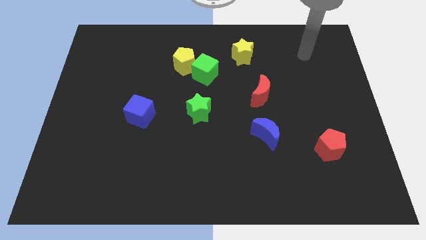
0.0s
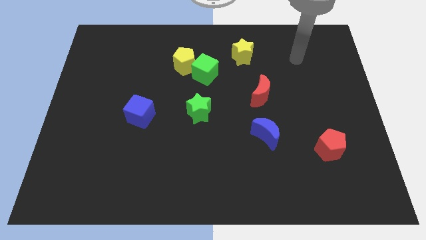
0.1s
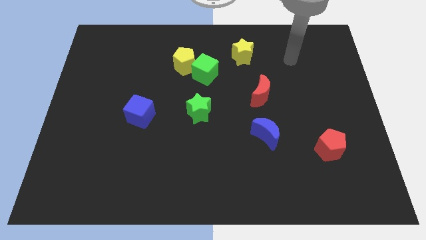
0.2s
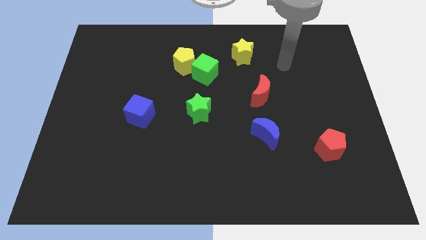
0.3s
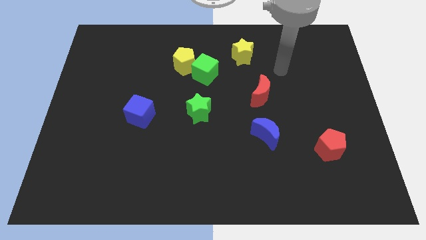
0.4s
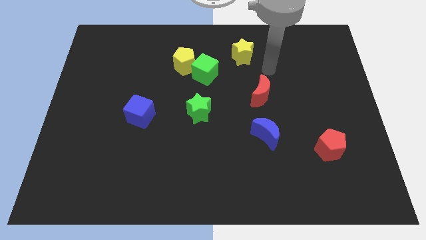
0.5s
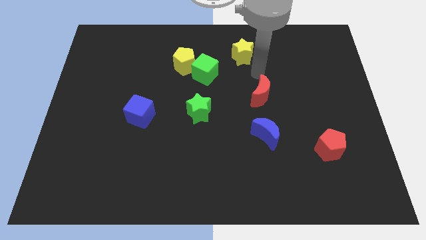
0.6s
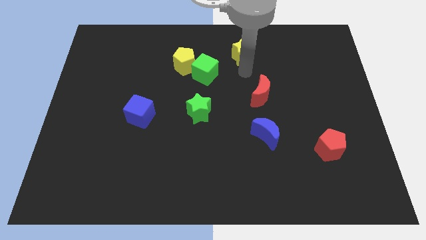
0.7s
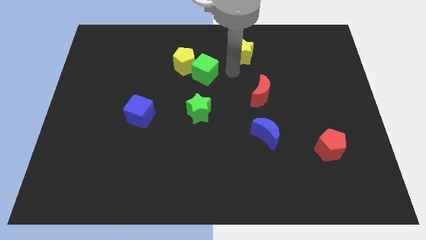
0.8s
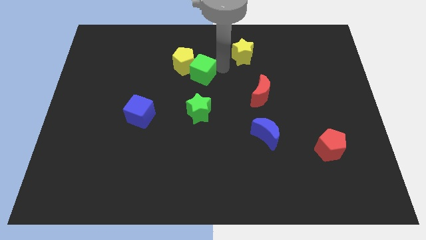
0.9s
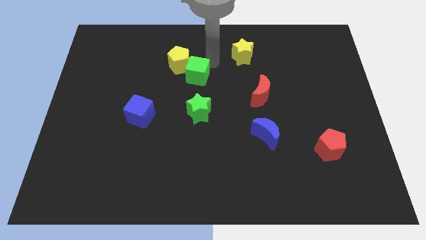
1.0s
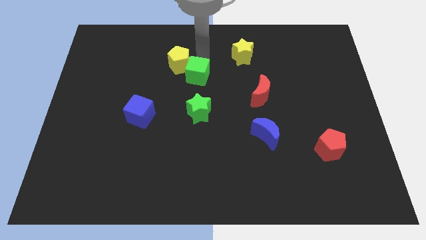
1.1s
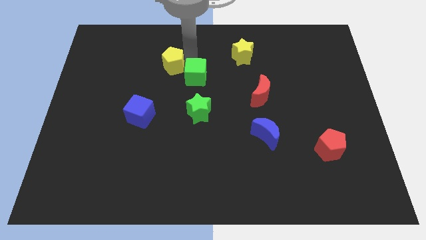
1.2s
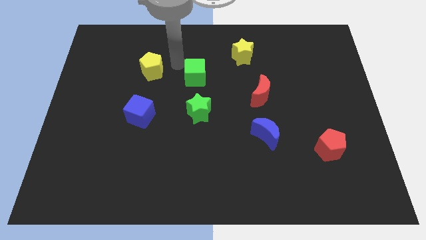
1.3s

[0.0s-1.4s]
separate the green cube from the yellow pentagon

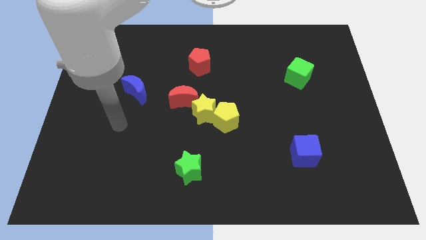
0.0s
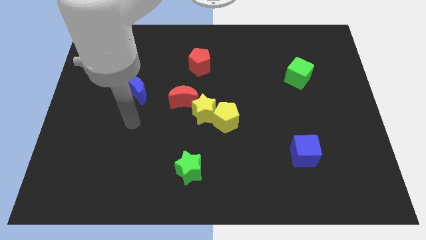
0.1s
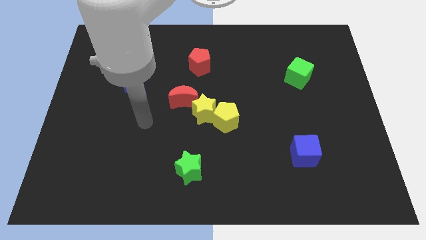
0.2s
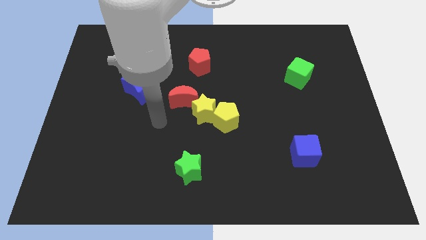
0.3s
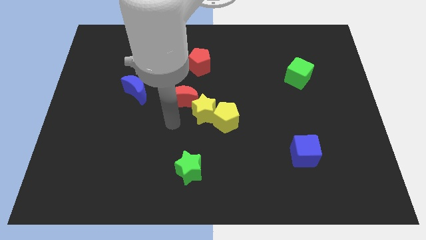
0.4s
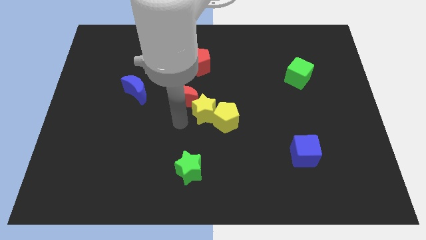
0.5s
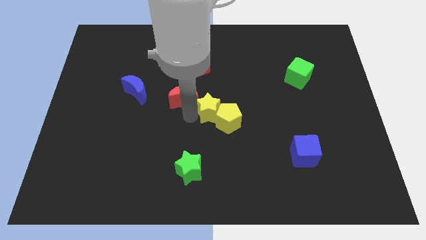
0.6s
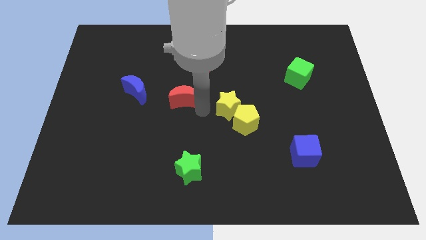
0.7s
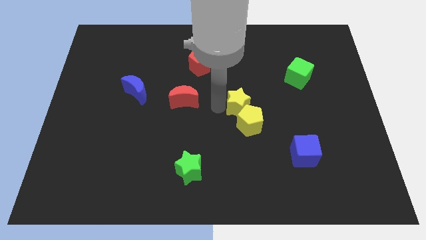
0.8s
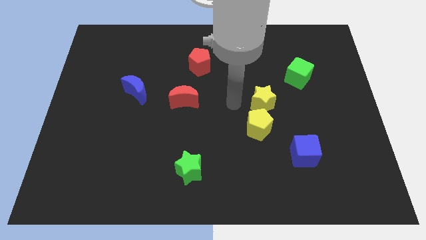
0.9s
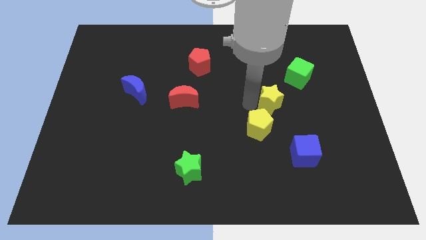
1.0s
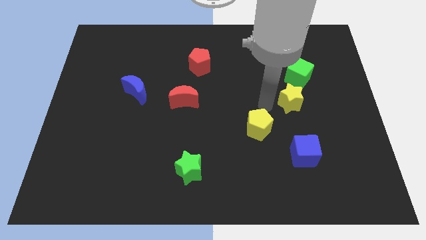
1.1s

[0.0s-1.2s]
separate the yellow pentagon from the yellow star

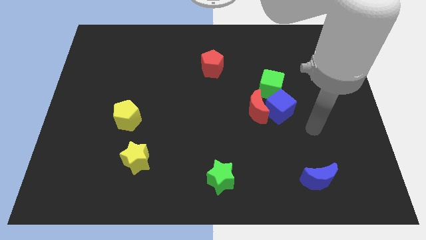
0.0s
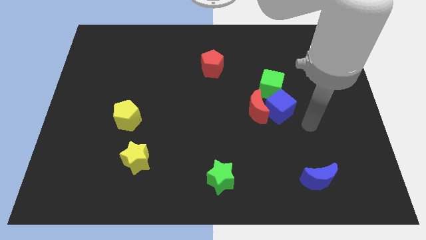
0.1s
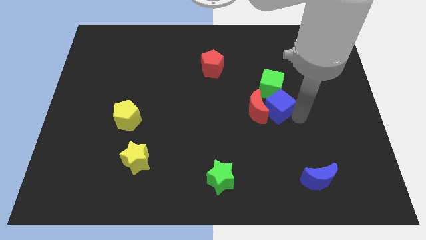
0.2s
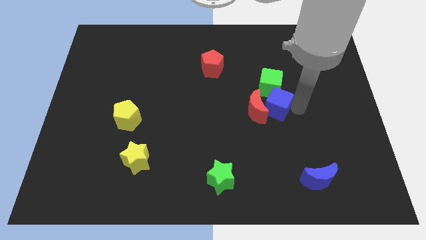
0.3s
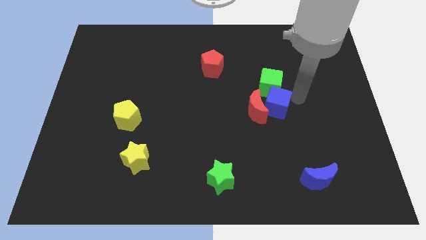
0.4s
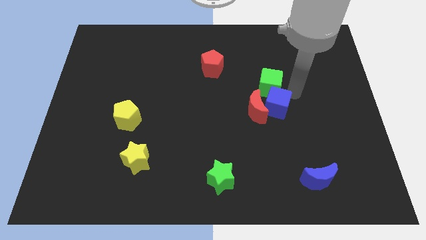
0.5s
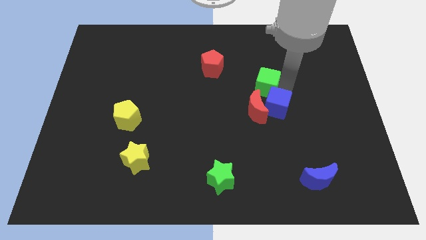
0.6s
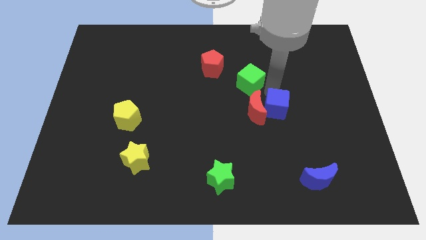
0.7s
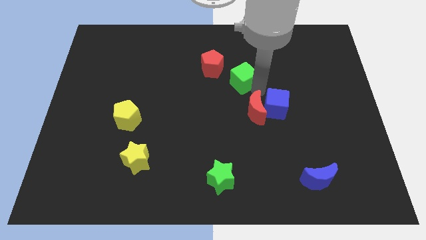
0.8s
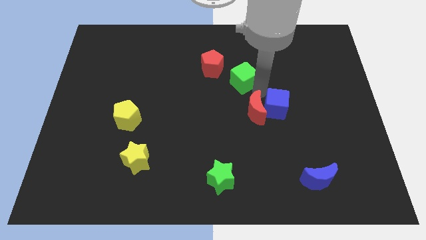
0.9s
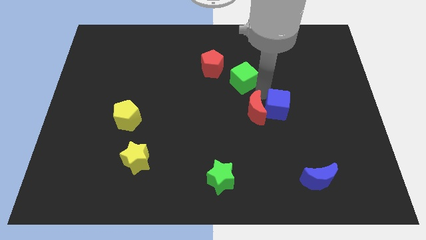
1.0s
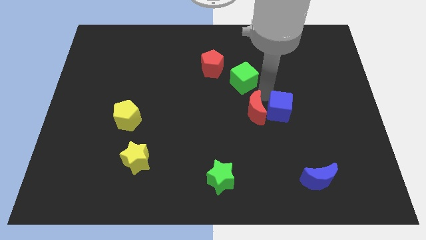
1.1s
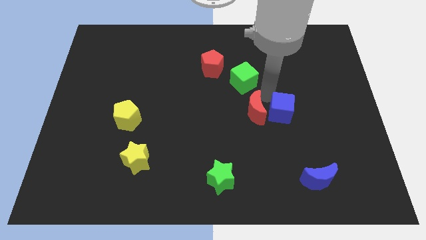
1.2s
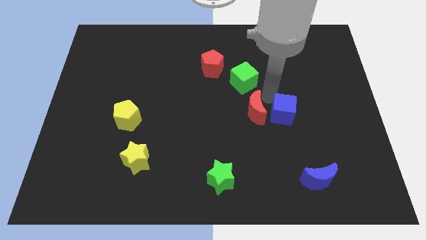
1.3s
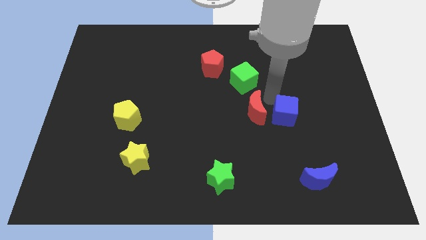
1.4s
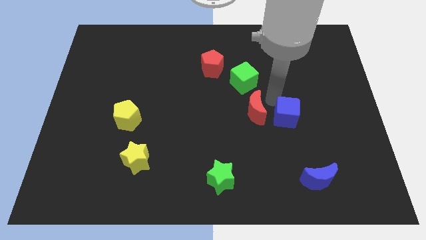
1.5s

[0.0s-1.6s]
separate the blue cube from the red moon and green cube

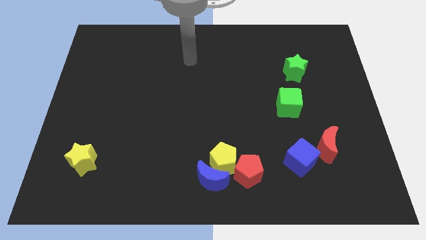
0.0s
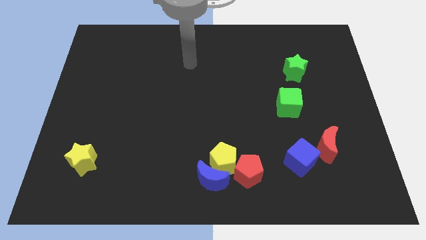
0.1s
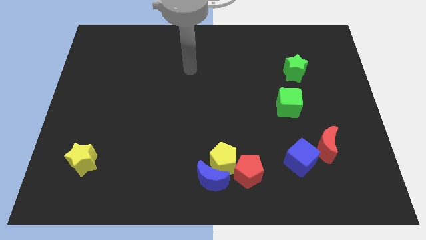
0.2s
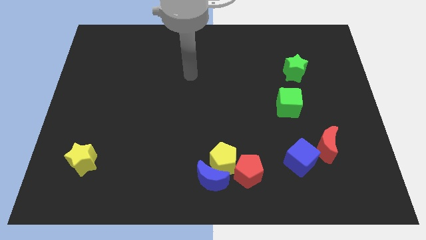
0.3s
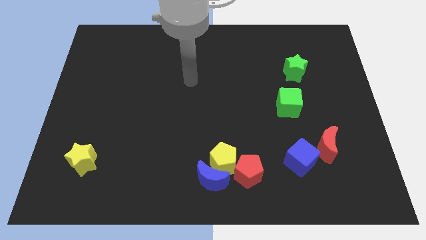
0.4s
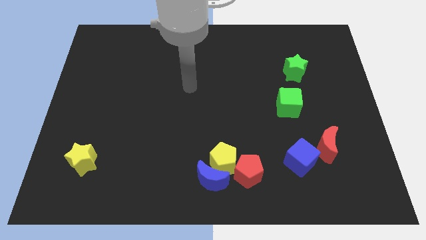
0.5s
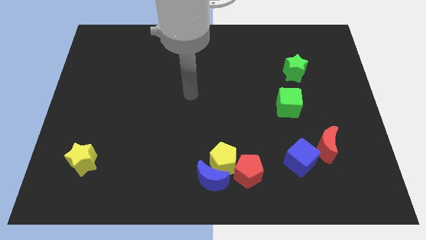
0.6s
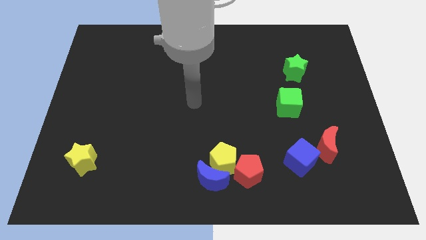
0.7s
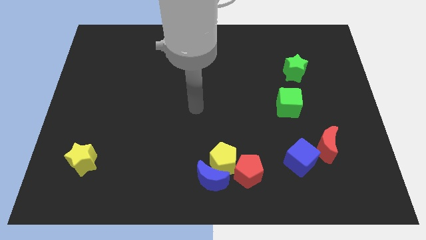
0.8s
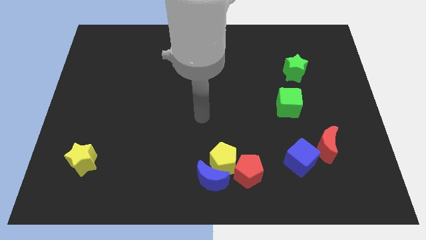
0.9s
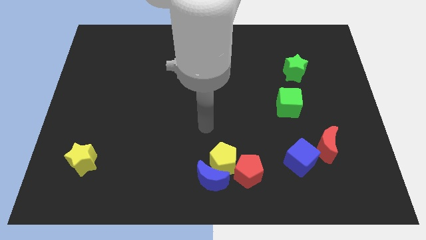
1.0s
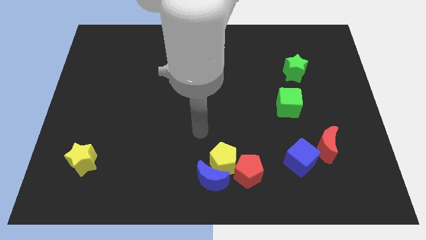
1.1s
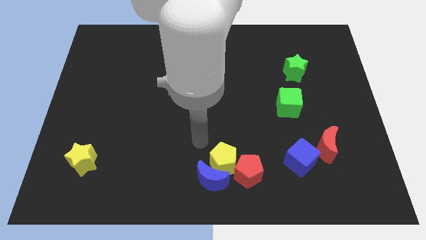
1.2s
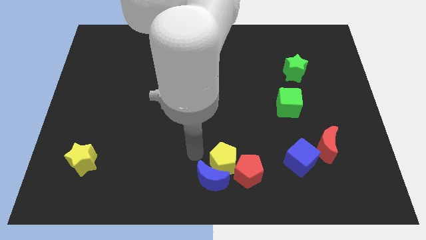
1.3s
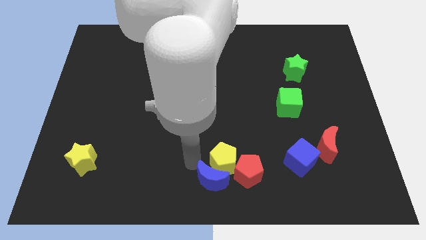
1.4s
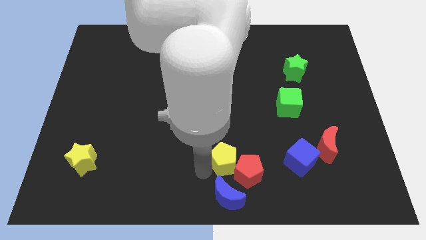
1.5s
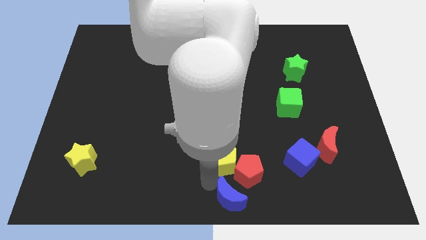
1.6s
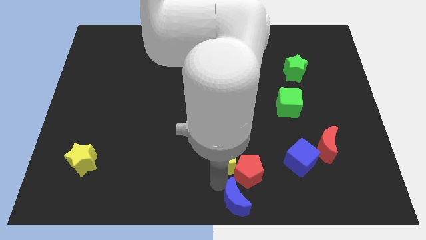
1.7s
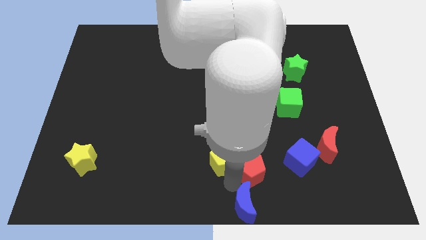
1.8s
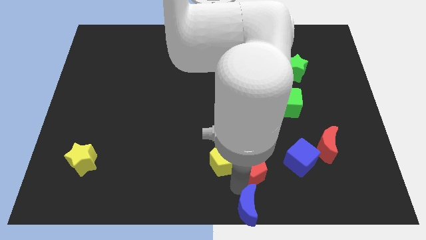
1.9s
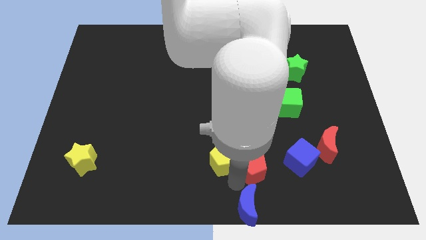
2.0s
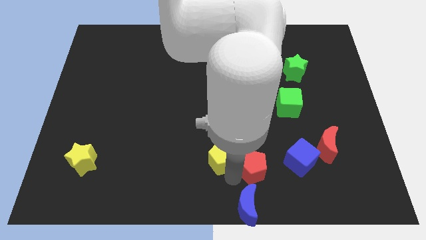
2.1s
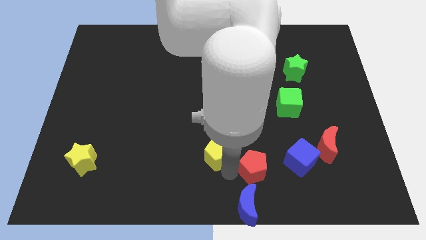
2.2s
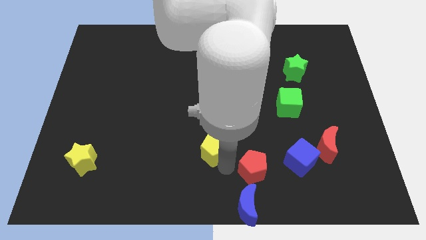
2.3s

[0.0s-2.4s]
move the yellow pentagon away from the blue moon and red pentagon

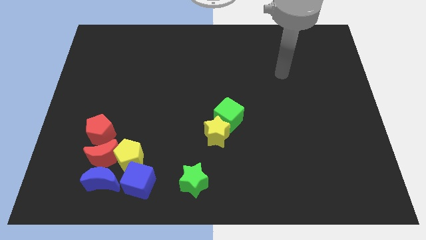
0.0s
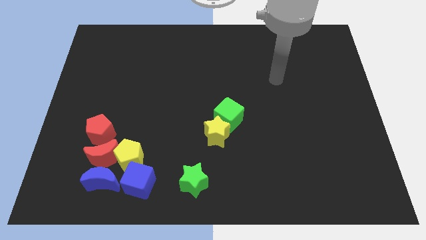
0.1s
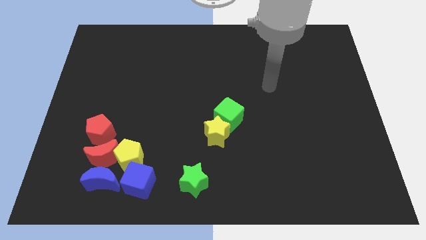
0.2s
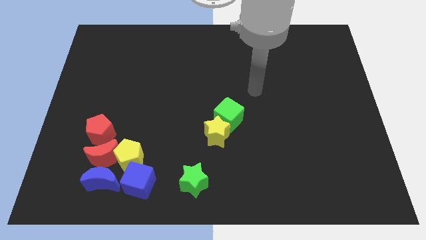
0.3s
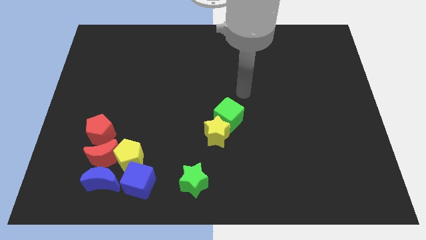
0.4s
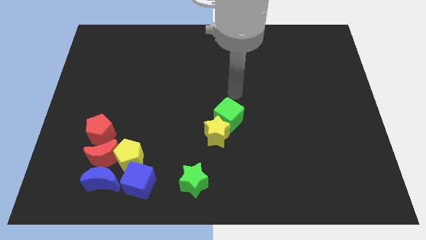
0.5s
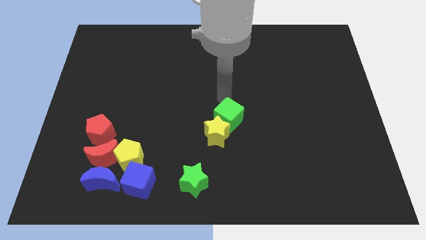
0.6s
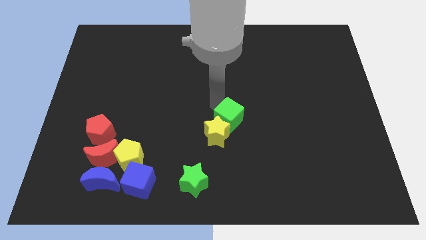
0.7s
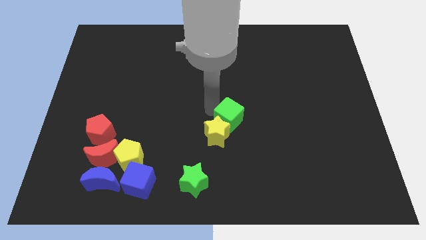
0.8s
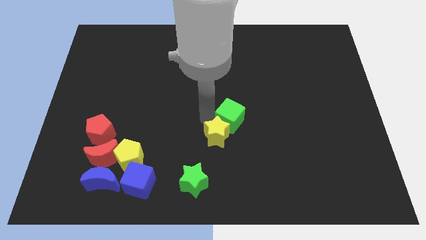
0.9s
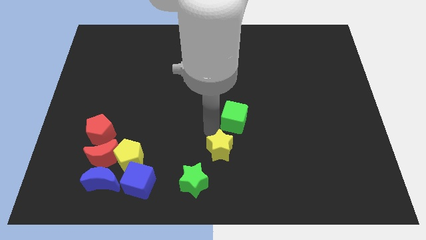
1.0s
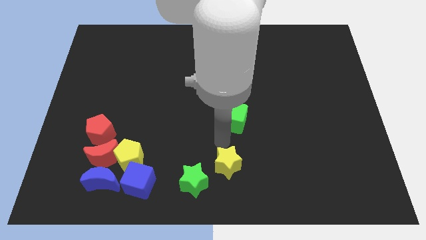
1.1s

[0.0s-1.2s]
pull the green cube apart from the yellow star

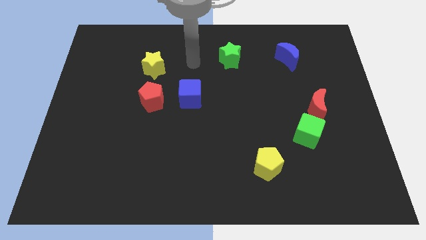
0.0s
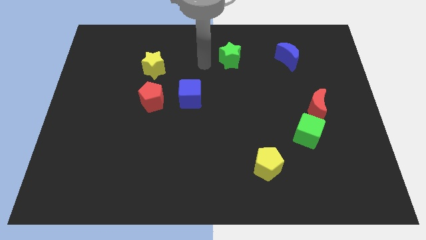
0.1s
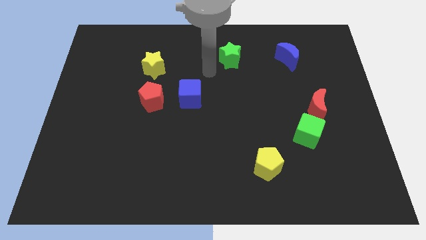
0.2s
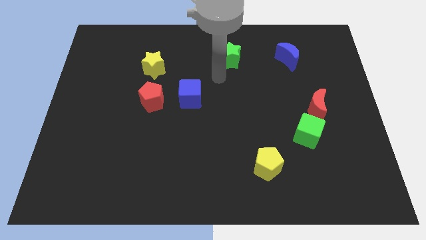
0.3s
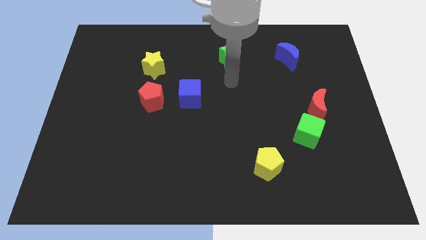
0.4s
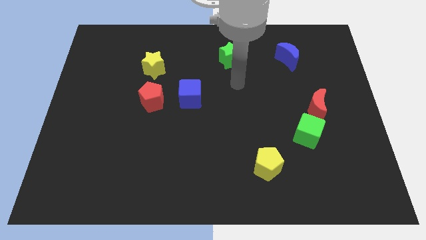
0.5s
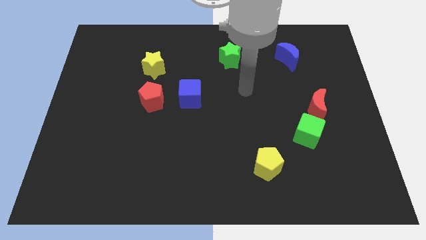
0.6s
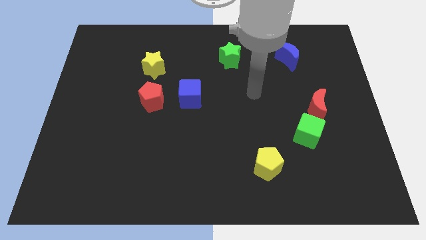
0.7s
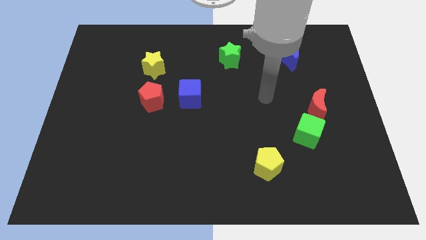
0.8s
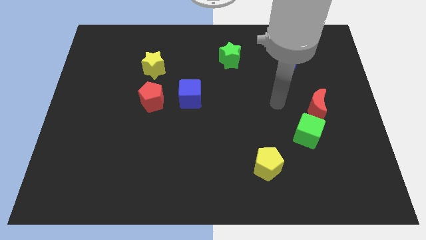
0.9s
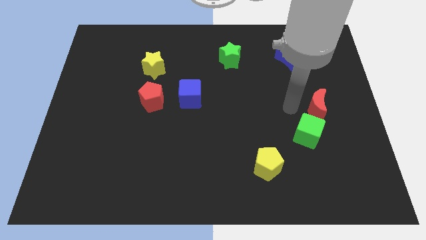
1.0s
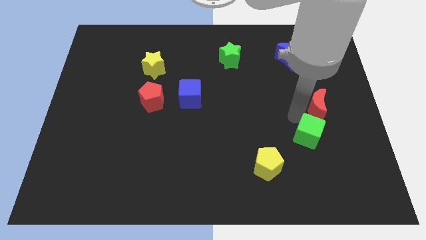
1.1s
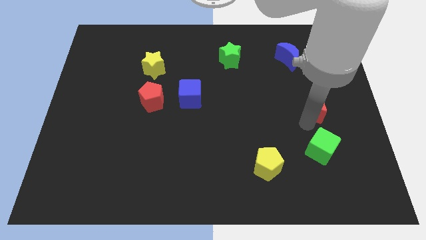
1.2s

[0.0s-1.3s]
pull the red moon apart from the green cube

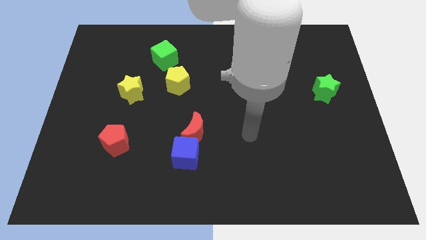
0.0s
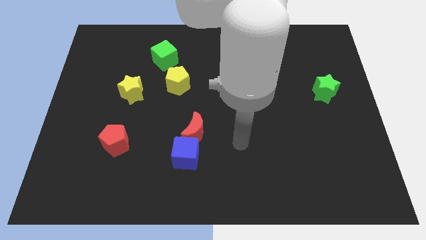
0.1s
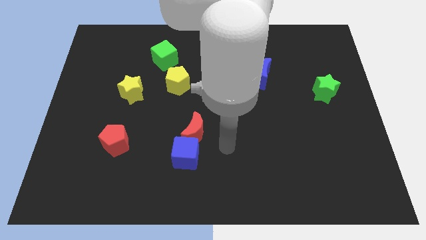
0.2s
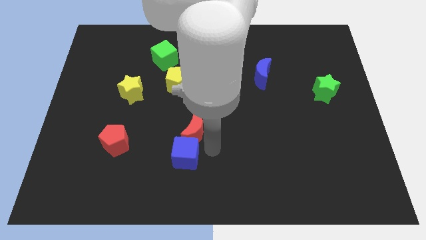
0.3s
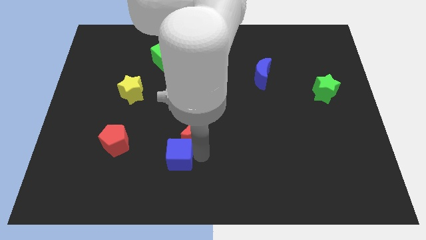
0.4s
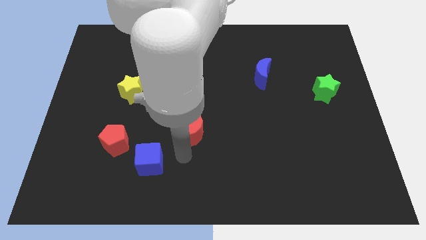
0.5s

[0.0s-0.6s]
move the red moon away from the blue cube
